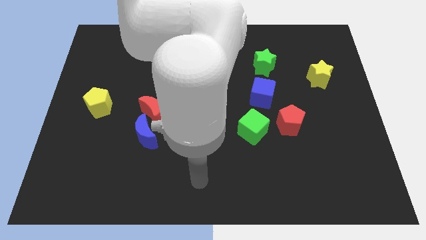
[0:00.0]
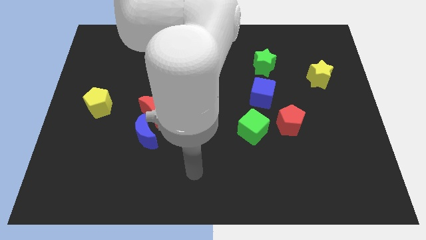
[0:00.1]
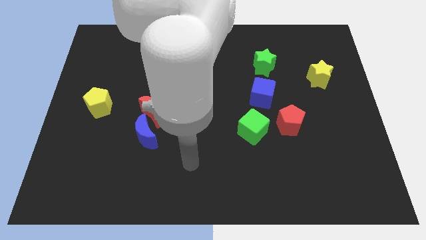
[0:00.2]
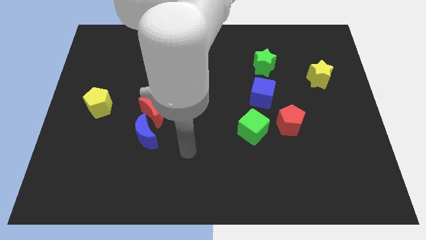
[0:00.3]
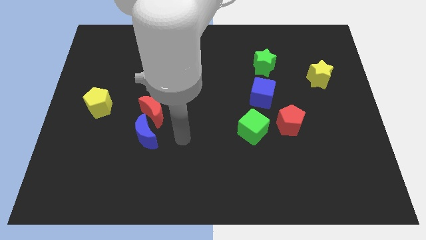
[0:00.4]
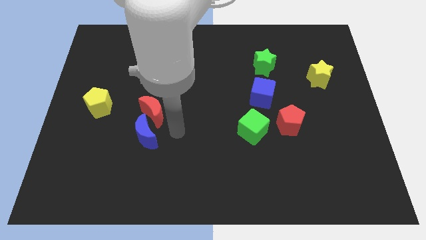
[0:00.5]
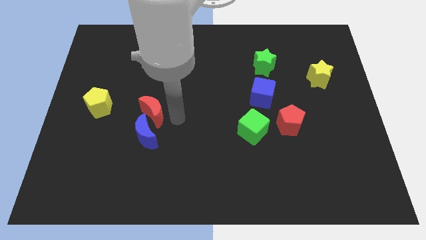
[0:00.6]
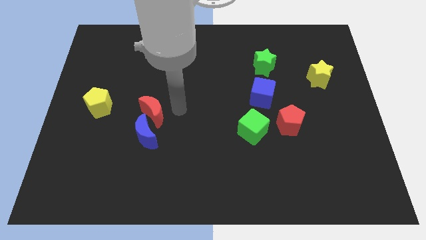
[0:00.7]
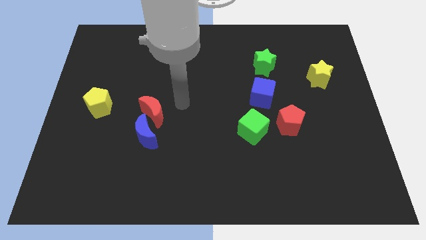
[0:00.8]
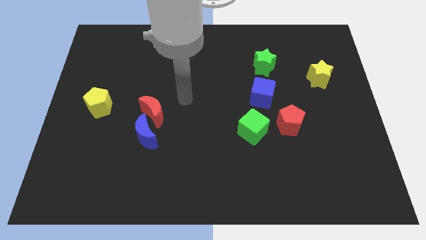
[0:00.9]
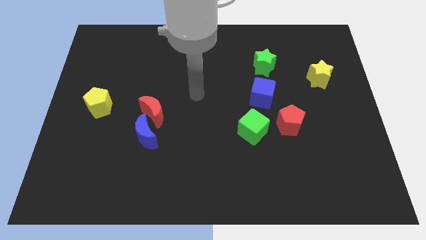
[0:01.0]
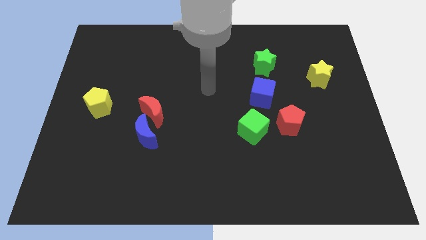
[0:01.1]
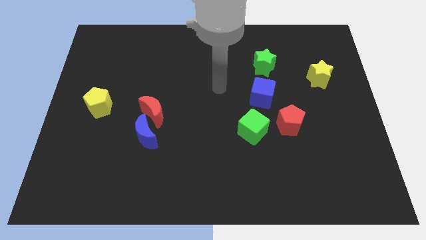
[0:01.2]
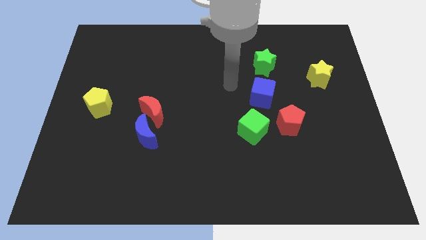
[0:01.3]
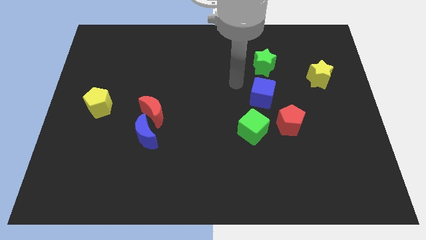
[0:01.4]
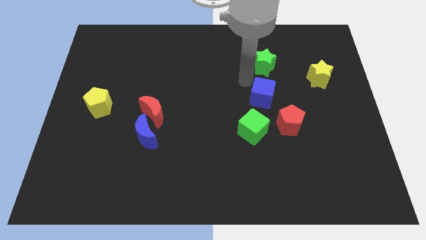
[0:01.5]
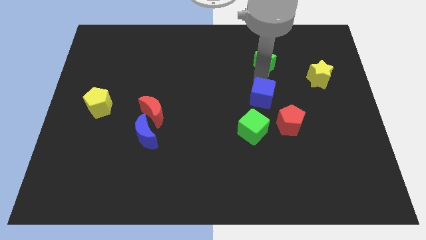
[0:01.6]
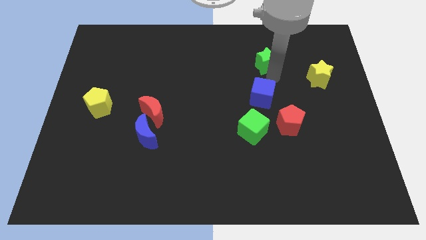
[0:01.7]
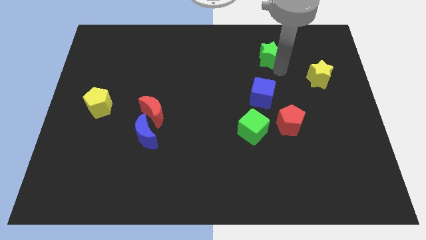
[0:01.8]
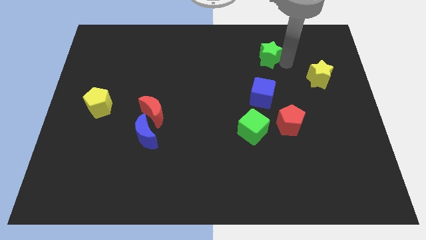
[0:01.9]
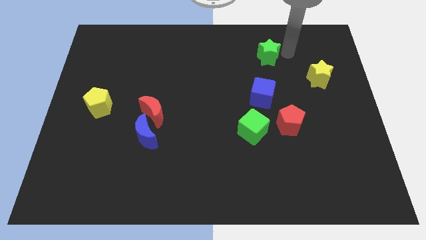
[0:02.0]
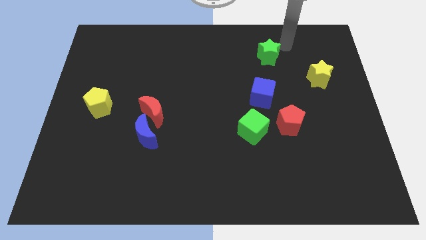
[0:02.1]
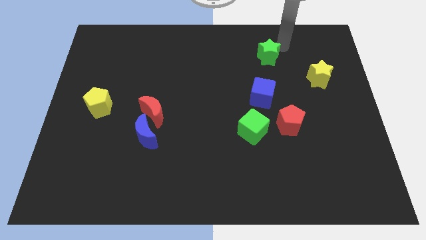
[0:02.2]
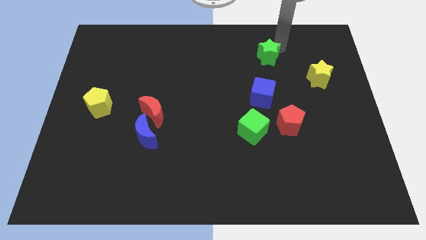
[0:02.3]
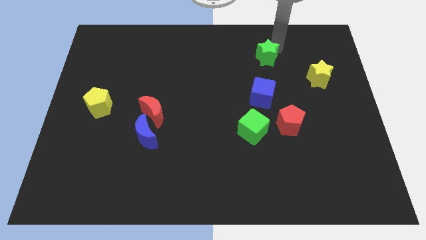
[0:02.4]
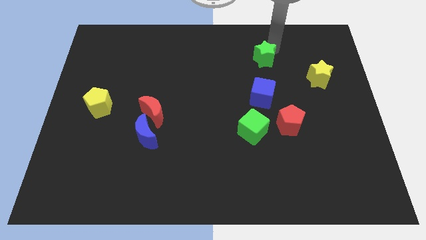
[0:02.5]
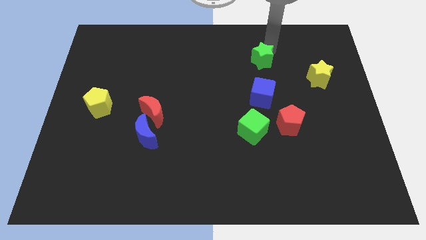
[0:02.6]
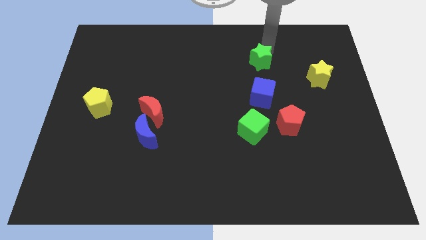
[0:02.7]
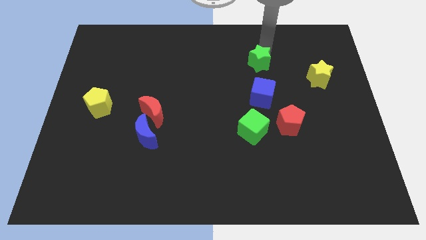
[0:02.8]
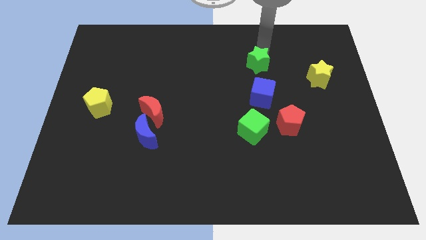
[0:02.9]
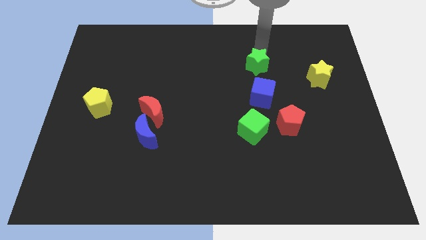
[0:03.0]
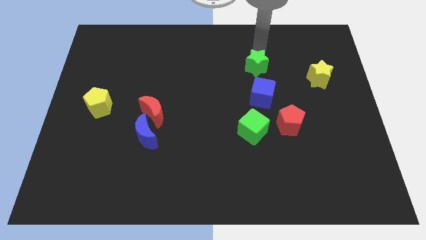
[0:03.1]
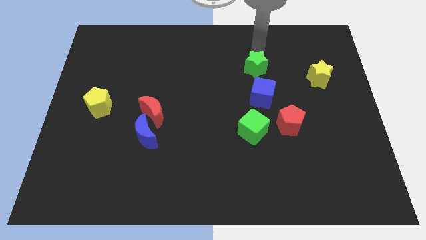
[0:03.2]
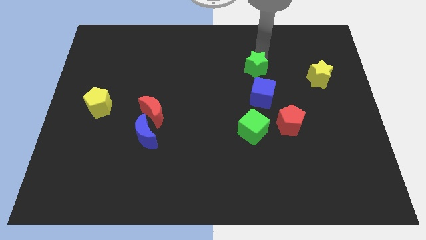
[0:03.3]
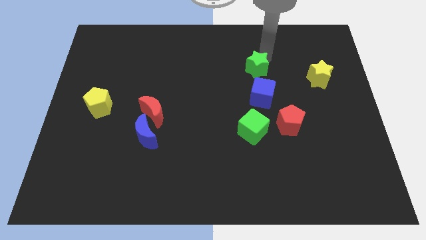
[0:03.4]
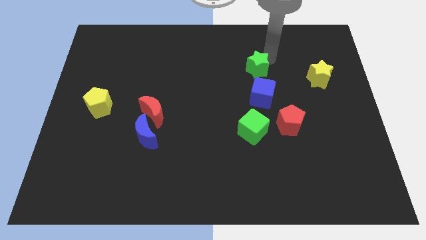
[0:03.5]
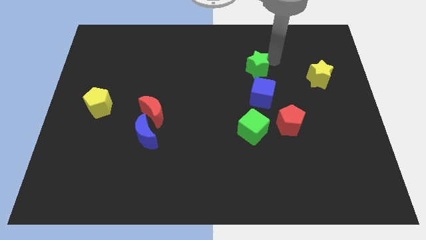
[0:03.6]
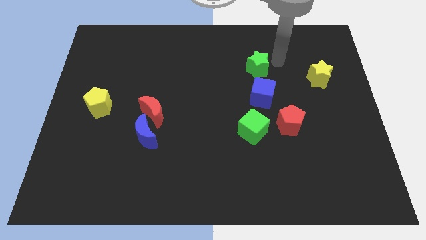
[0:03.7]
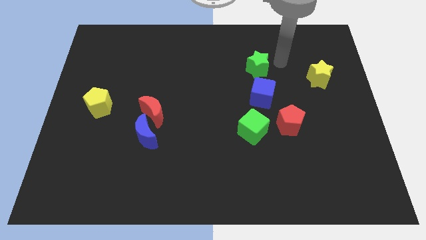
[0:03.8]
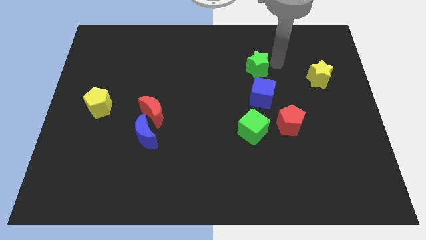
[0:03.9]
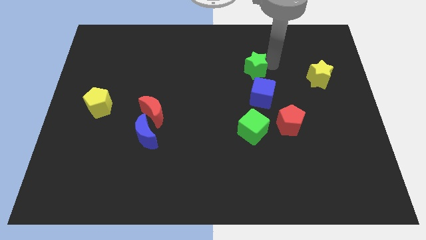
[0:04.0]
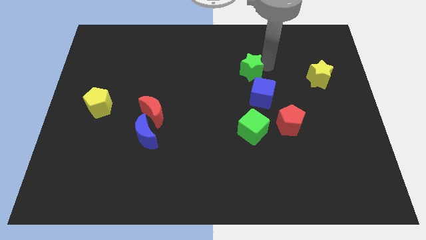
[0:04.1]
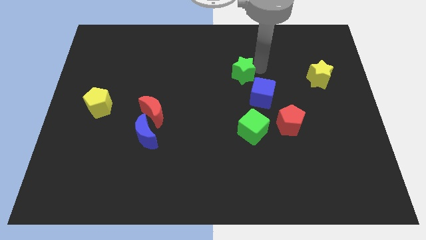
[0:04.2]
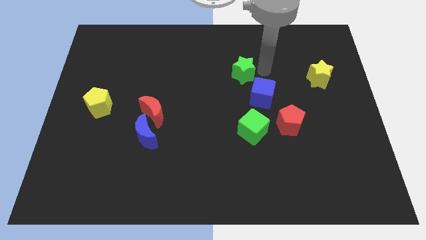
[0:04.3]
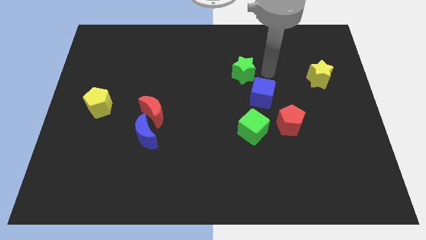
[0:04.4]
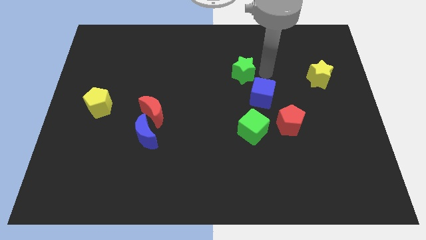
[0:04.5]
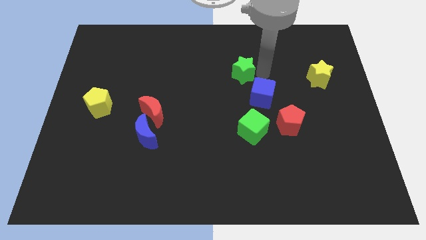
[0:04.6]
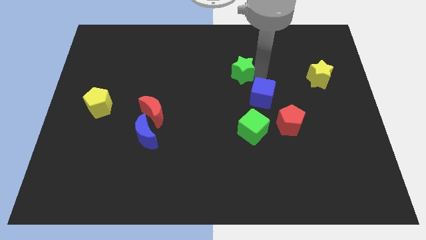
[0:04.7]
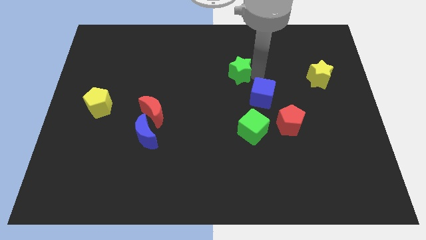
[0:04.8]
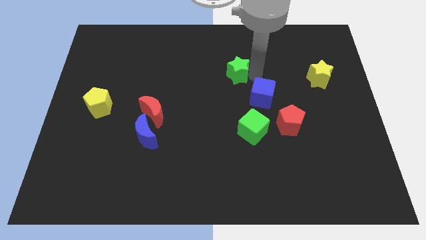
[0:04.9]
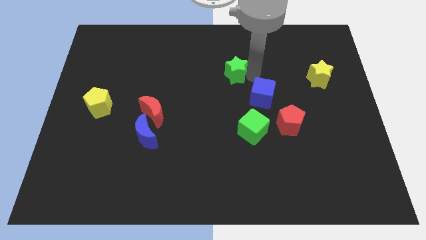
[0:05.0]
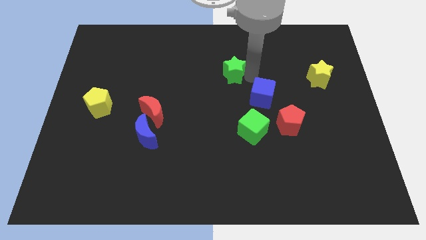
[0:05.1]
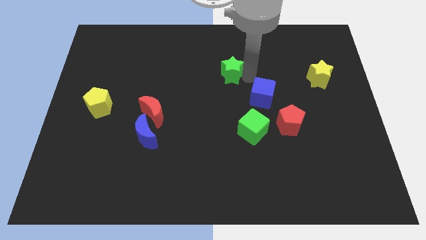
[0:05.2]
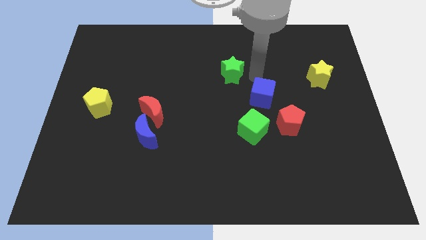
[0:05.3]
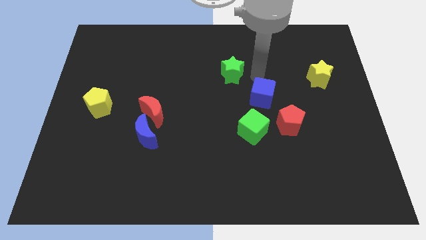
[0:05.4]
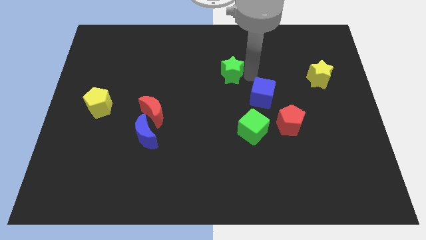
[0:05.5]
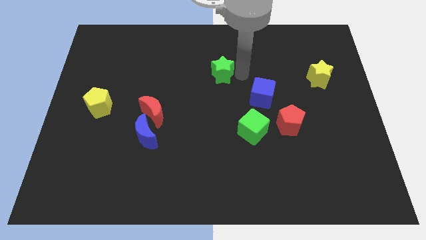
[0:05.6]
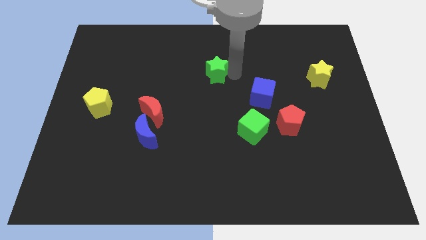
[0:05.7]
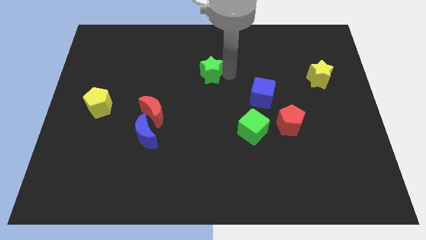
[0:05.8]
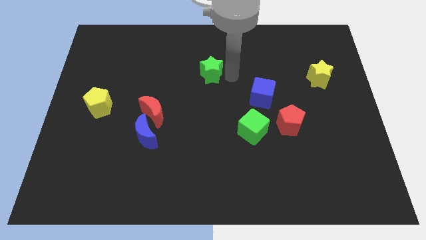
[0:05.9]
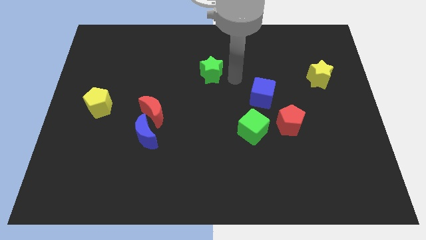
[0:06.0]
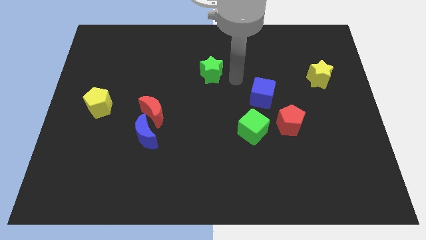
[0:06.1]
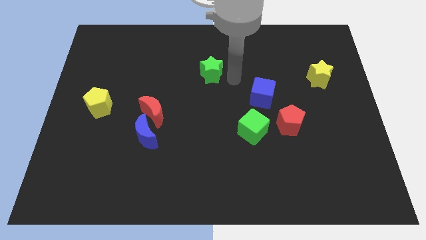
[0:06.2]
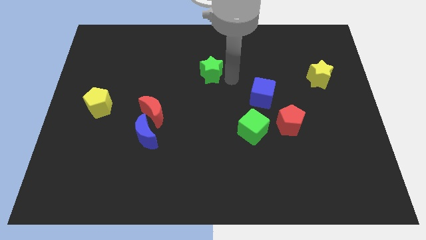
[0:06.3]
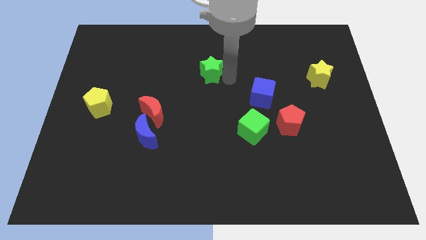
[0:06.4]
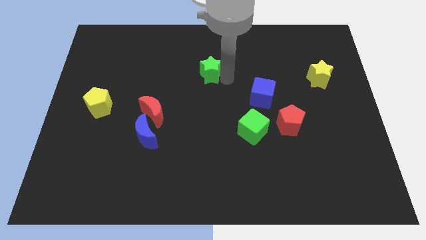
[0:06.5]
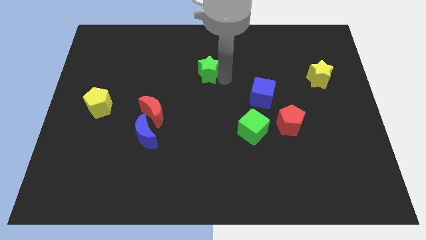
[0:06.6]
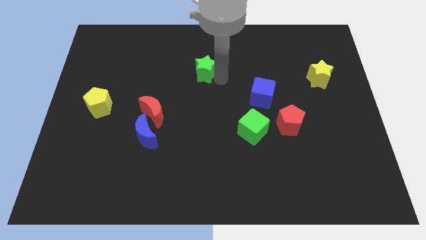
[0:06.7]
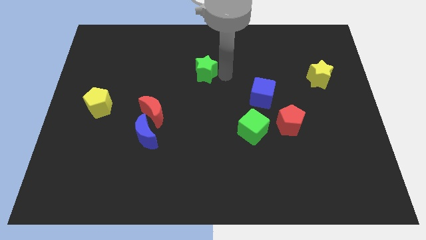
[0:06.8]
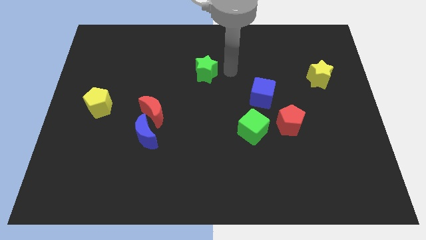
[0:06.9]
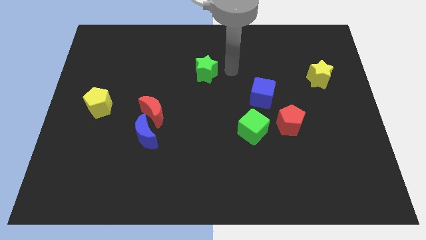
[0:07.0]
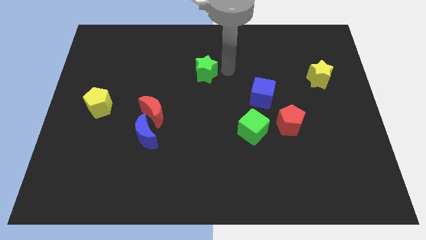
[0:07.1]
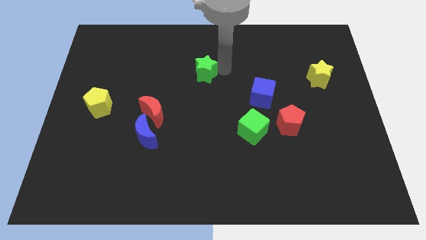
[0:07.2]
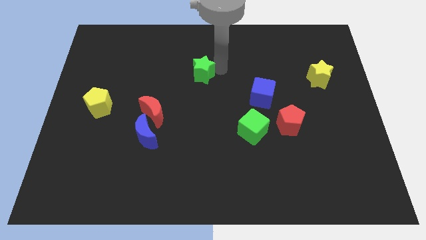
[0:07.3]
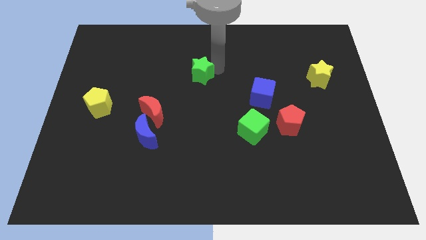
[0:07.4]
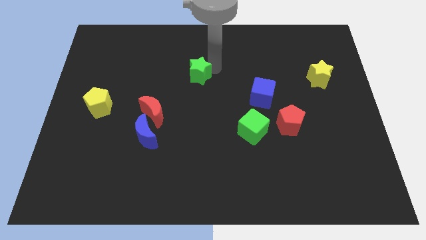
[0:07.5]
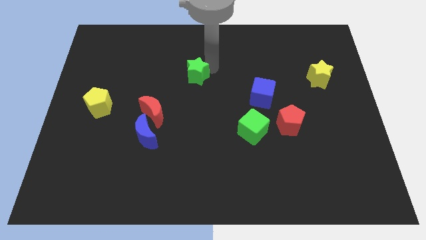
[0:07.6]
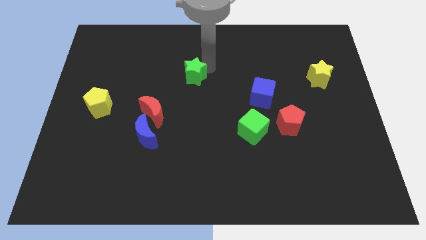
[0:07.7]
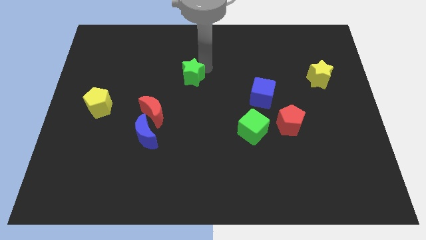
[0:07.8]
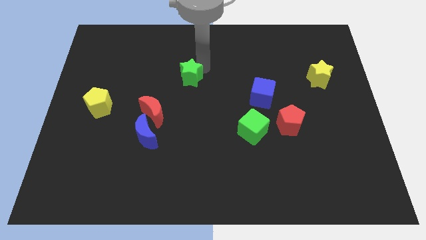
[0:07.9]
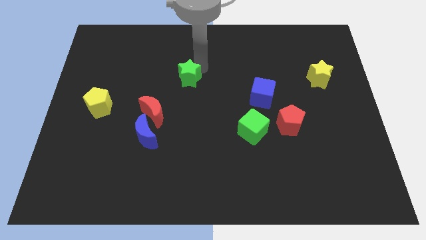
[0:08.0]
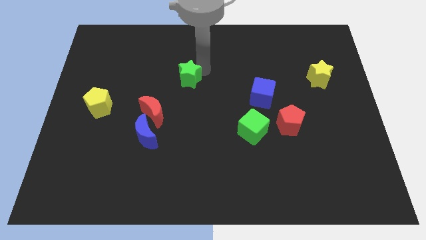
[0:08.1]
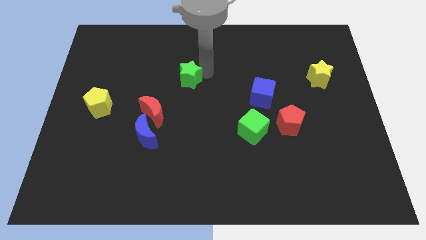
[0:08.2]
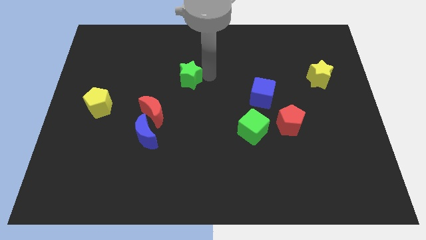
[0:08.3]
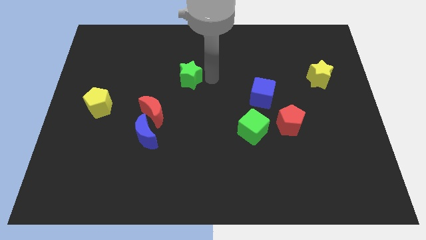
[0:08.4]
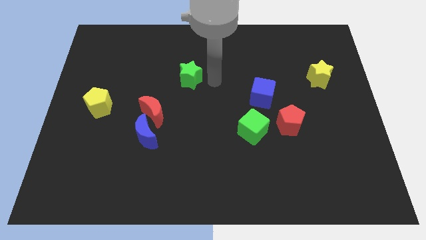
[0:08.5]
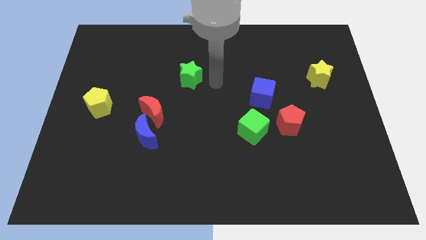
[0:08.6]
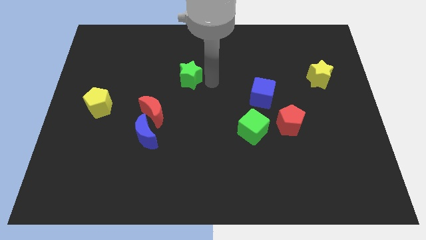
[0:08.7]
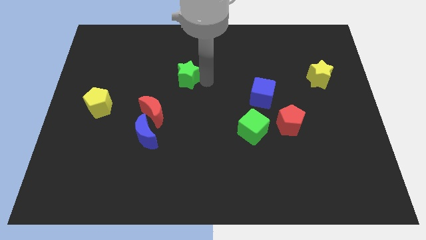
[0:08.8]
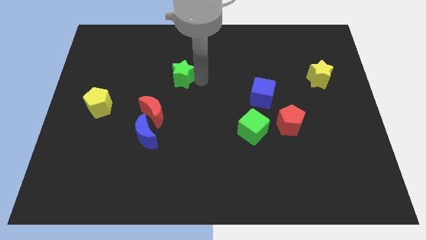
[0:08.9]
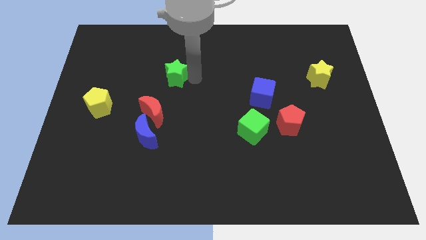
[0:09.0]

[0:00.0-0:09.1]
put the green star to the top of the red moon
